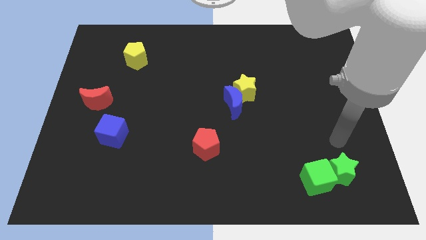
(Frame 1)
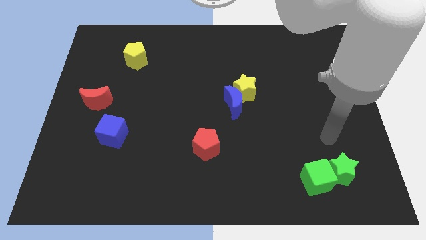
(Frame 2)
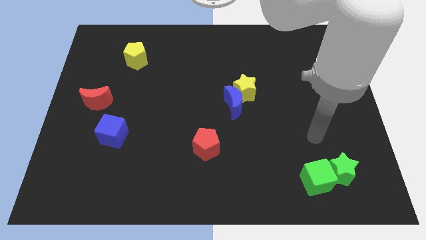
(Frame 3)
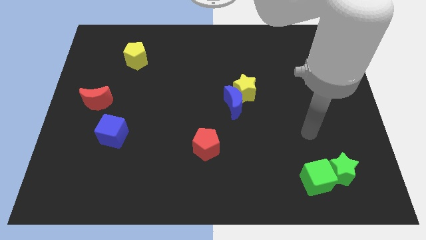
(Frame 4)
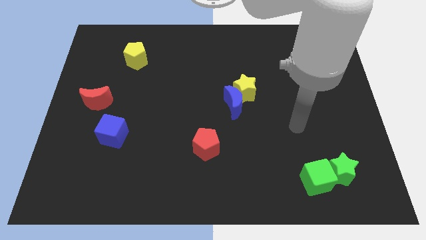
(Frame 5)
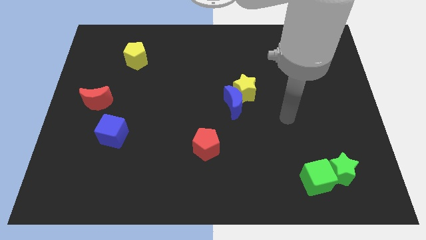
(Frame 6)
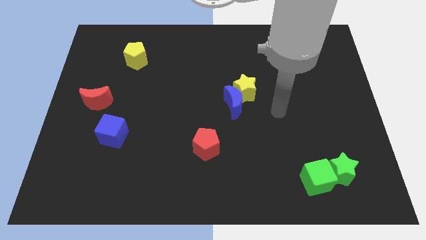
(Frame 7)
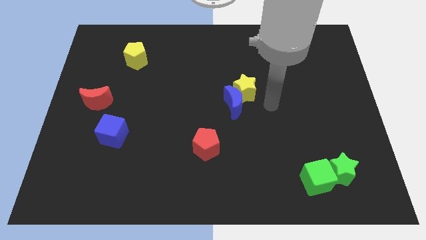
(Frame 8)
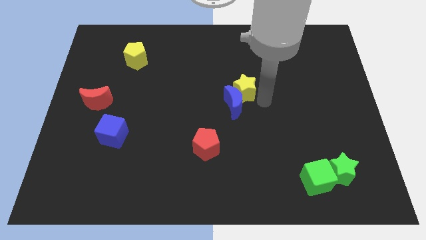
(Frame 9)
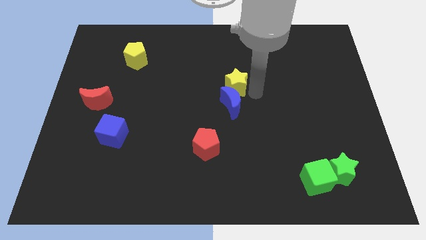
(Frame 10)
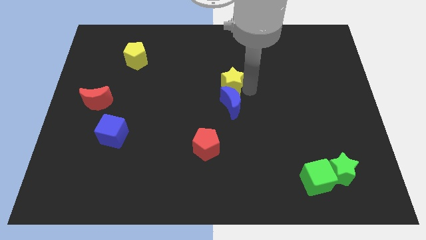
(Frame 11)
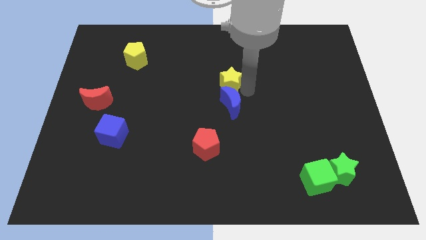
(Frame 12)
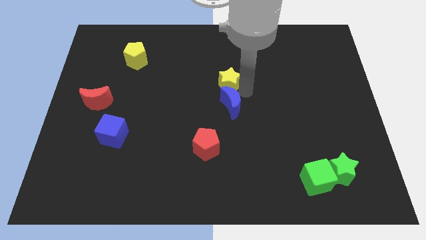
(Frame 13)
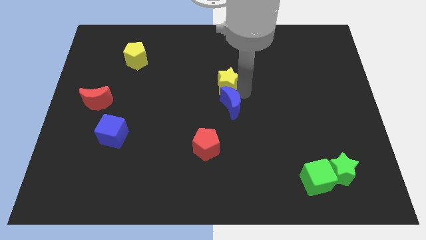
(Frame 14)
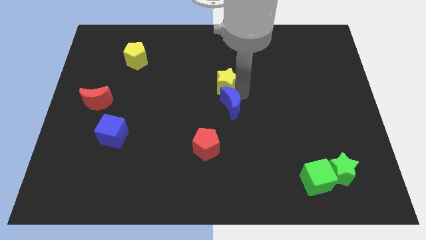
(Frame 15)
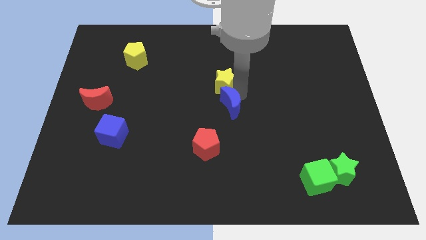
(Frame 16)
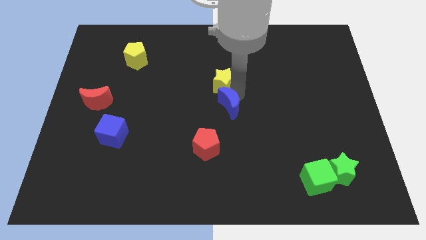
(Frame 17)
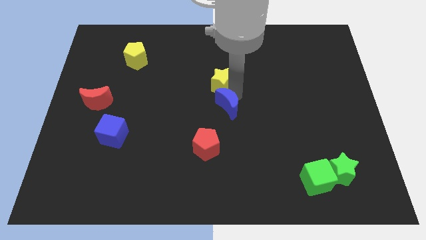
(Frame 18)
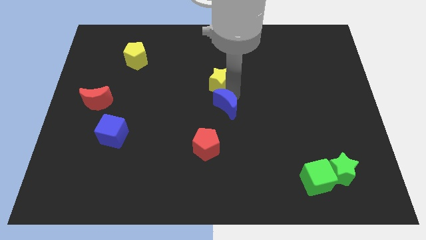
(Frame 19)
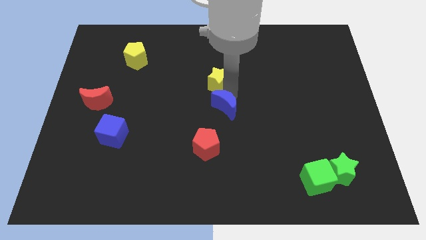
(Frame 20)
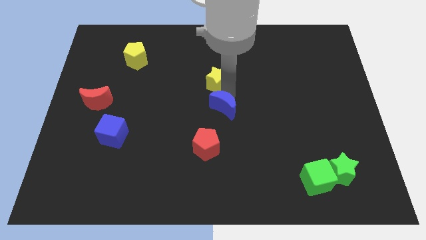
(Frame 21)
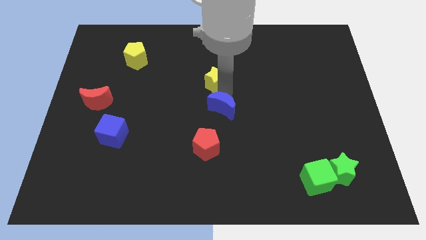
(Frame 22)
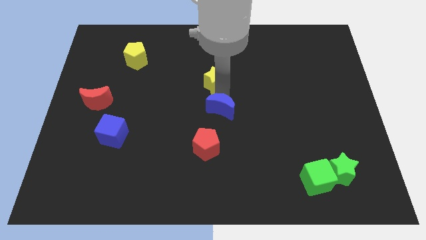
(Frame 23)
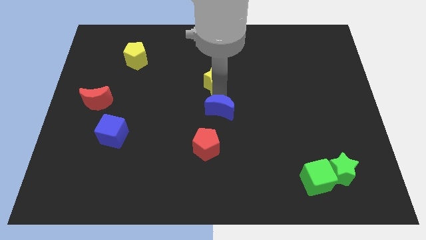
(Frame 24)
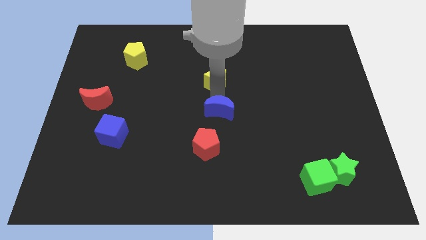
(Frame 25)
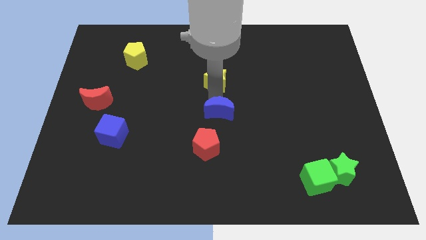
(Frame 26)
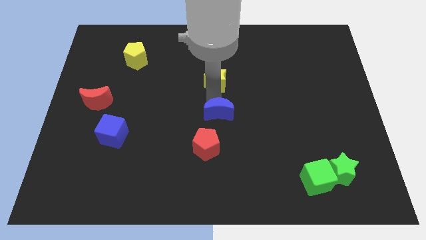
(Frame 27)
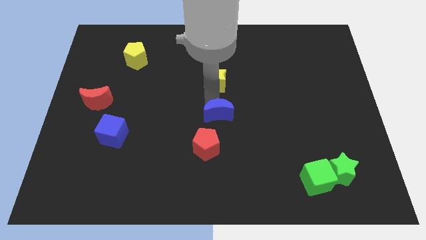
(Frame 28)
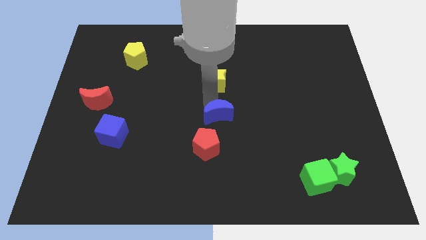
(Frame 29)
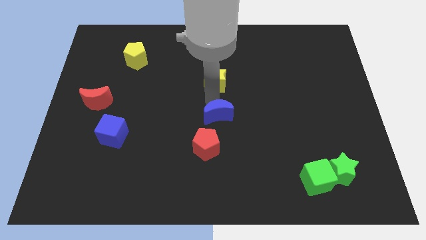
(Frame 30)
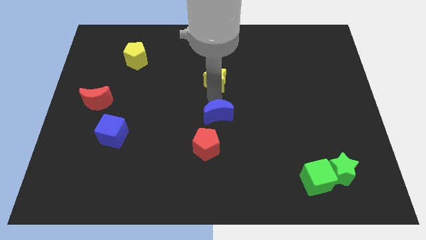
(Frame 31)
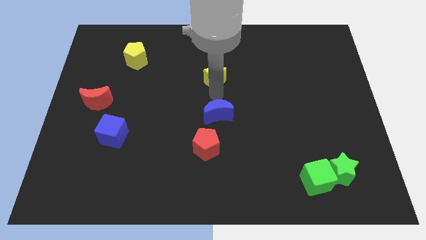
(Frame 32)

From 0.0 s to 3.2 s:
pull the blue moon apart from the yellow star

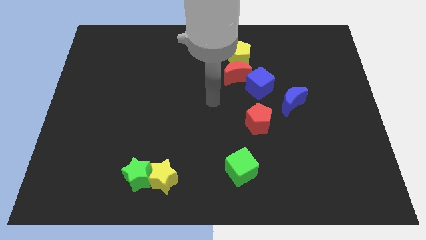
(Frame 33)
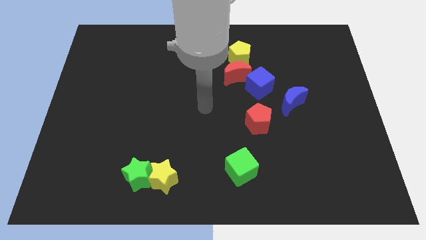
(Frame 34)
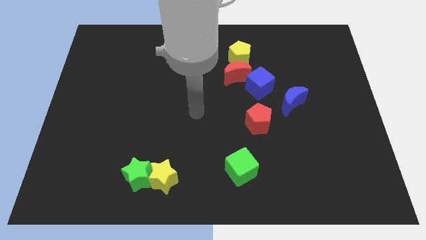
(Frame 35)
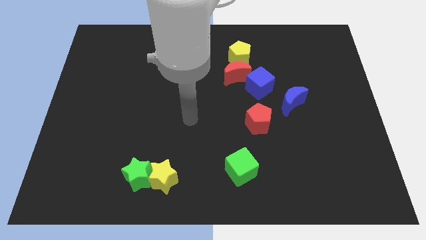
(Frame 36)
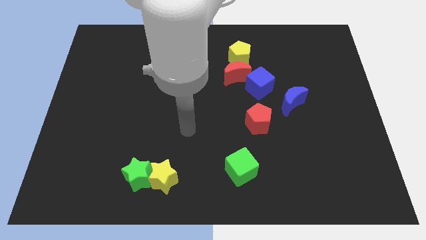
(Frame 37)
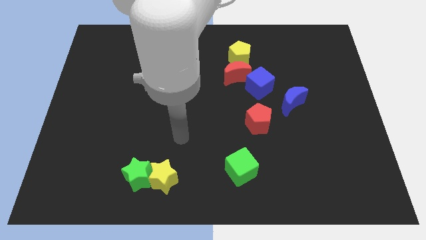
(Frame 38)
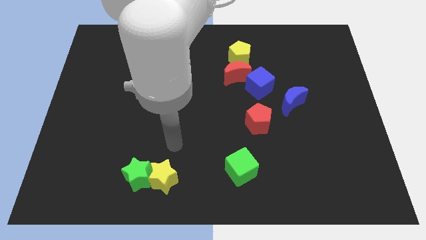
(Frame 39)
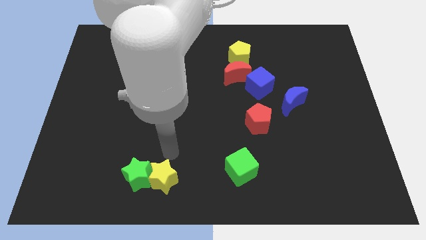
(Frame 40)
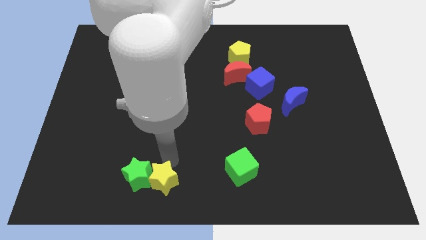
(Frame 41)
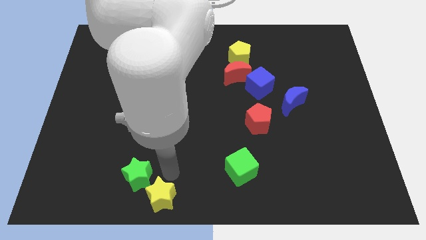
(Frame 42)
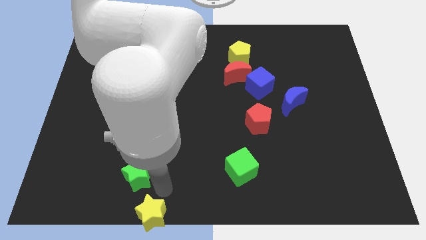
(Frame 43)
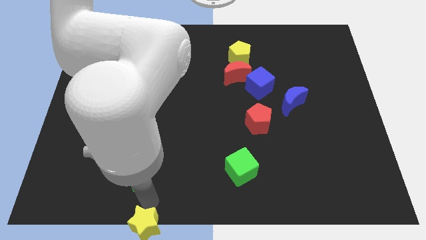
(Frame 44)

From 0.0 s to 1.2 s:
pull the green star apart from the yellow star

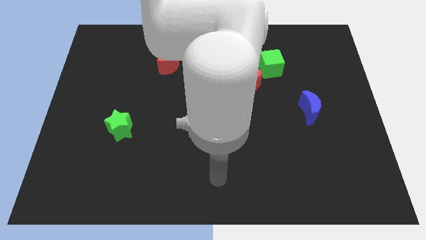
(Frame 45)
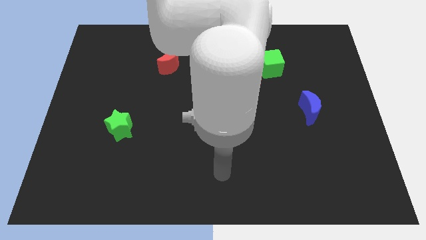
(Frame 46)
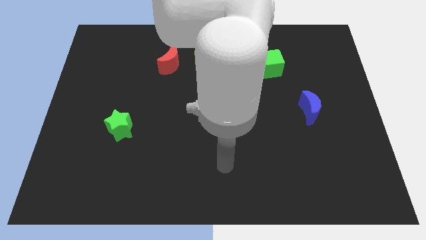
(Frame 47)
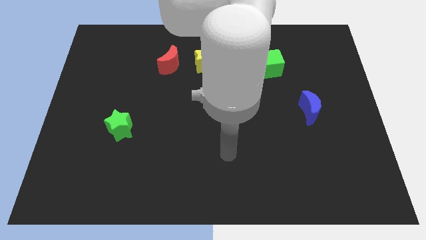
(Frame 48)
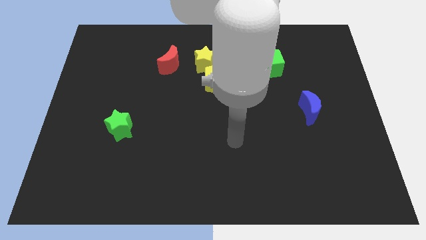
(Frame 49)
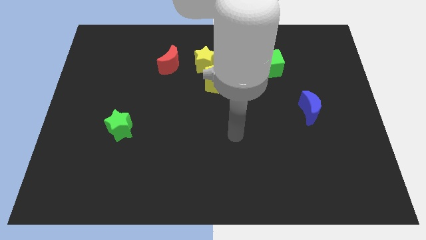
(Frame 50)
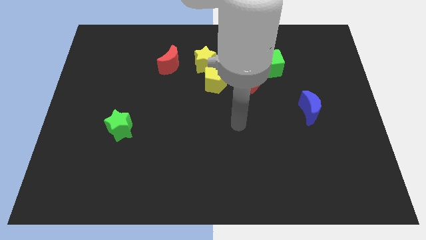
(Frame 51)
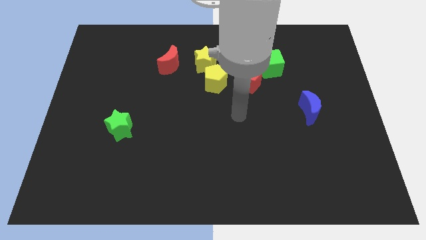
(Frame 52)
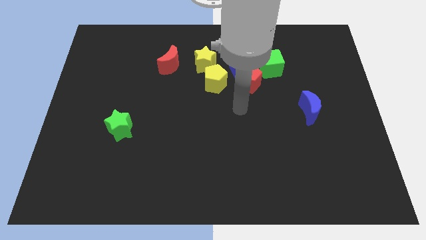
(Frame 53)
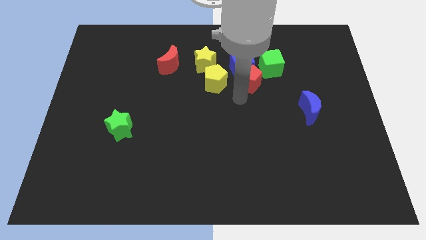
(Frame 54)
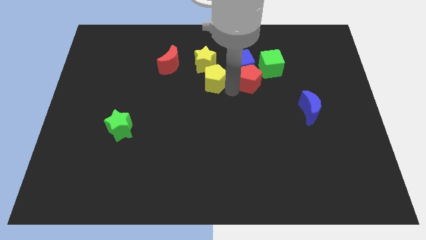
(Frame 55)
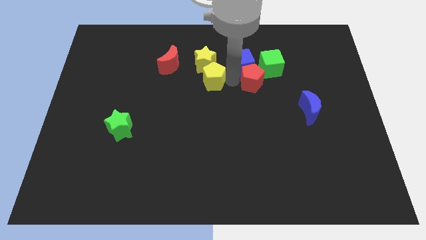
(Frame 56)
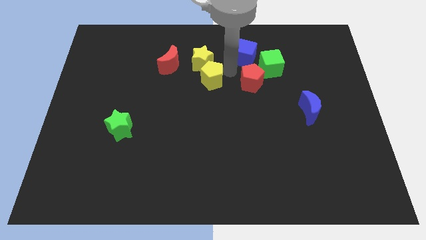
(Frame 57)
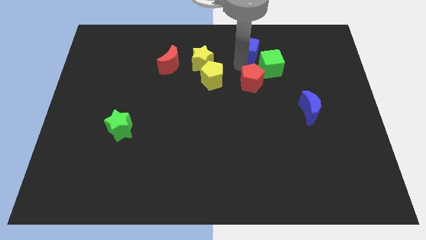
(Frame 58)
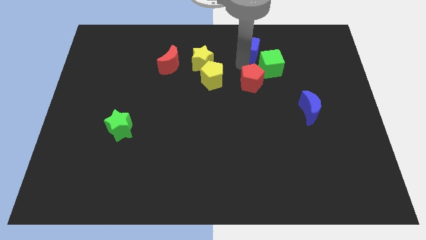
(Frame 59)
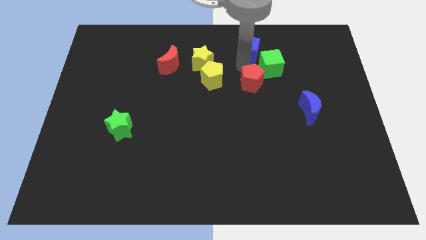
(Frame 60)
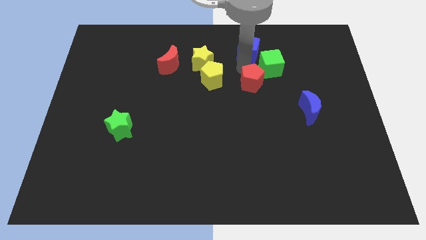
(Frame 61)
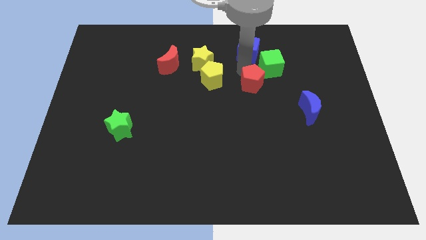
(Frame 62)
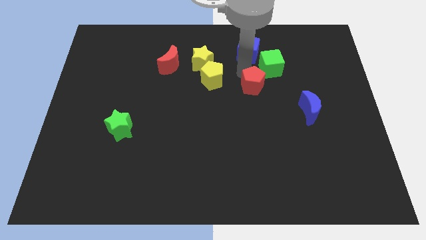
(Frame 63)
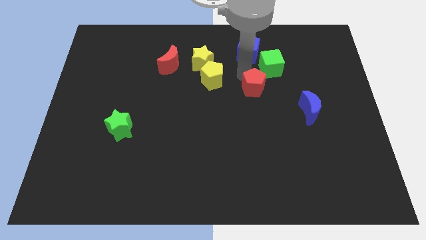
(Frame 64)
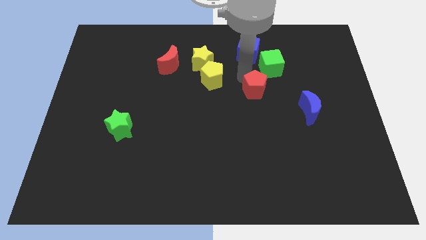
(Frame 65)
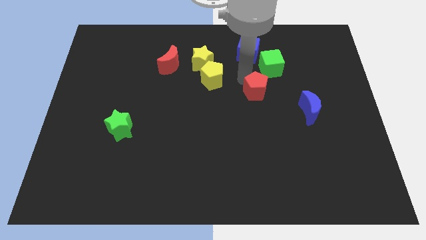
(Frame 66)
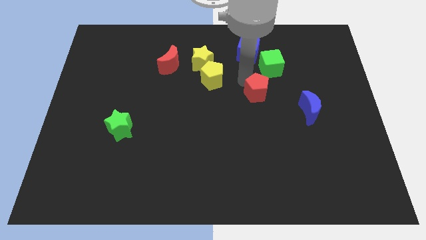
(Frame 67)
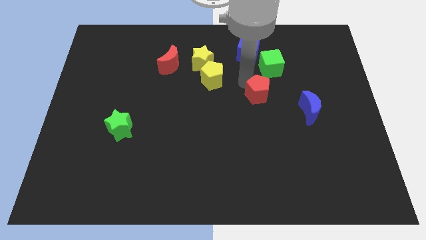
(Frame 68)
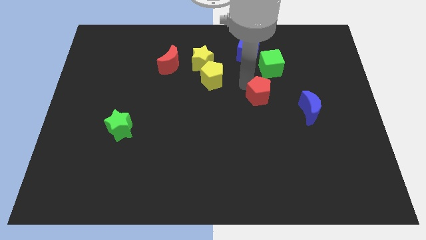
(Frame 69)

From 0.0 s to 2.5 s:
move the red pentagon away from the blue cube, green cube, and yellow pentagon

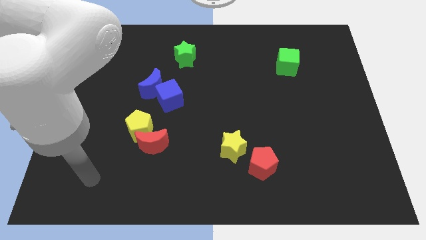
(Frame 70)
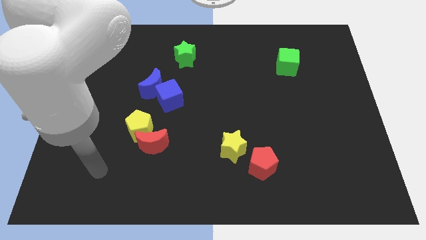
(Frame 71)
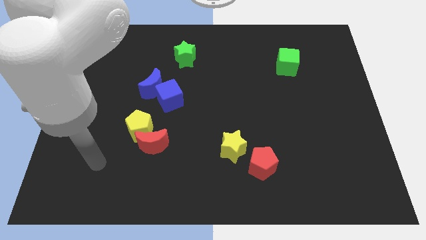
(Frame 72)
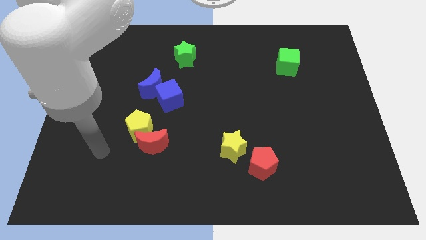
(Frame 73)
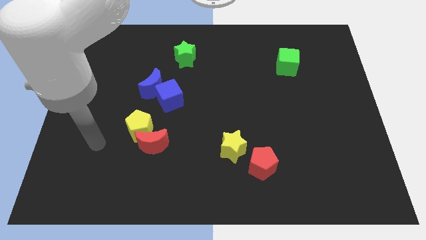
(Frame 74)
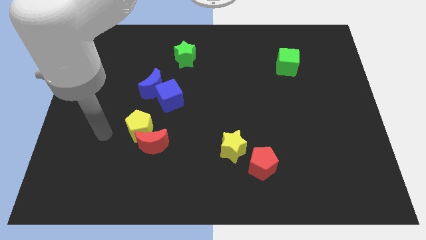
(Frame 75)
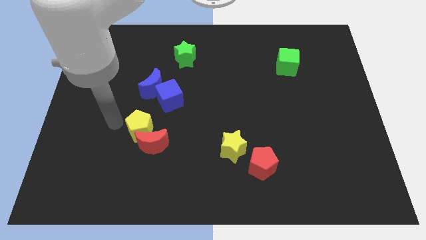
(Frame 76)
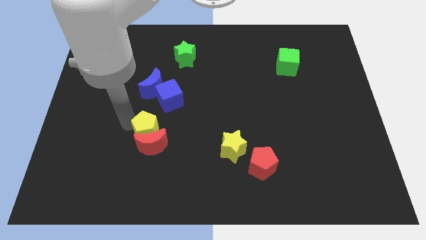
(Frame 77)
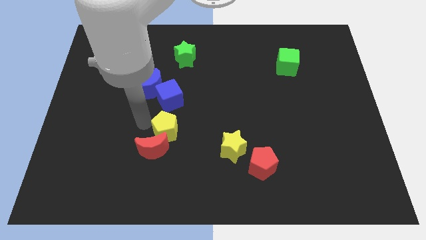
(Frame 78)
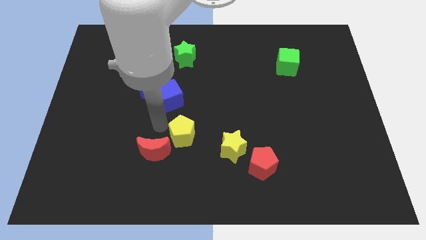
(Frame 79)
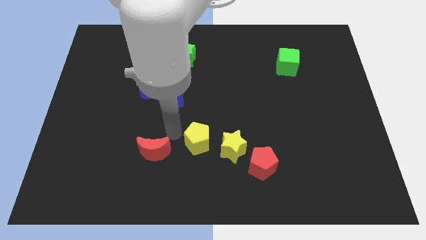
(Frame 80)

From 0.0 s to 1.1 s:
separate the red moon from the yellow pentagon

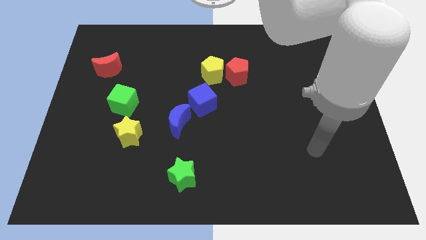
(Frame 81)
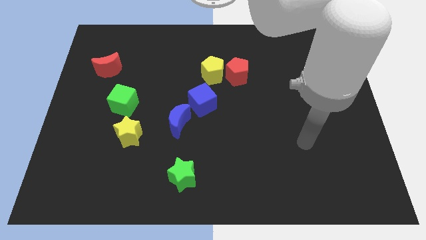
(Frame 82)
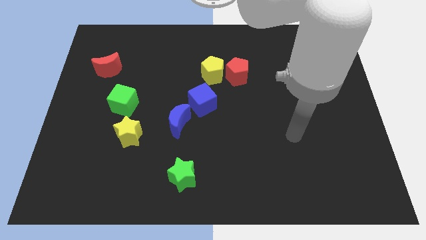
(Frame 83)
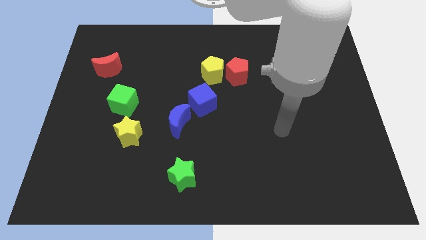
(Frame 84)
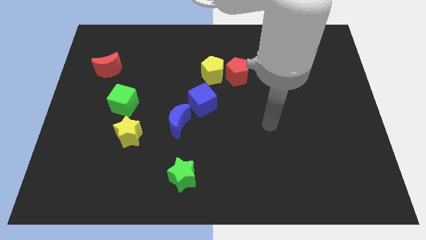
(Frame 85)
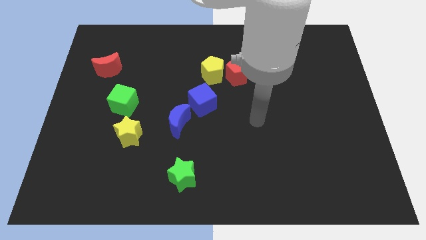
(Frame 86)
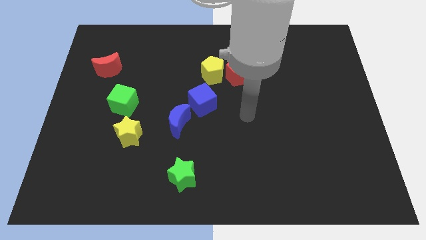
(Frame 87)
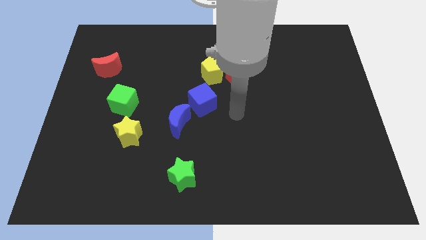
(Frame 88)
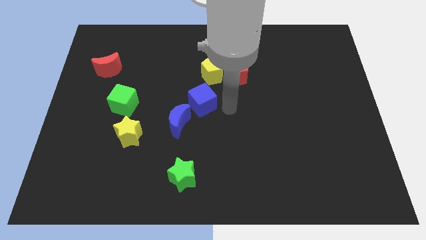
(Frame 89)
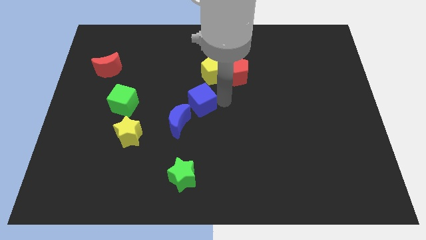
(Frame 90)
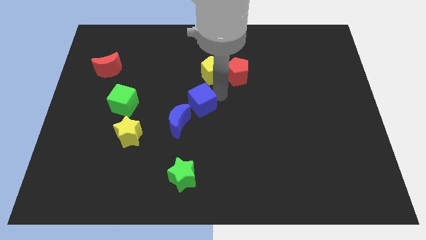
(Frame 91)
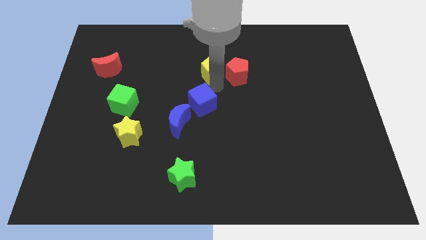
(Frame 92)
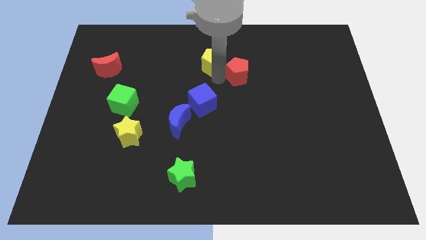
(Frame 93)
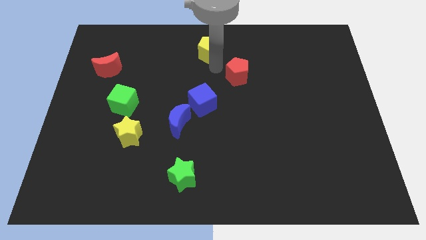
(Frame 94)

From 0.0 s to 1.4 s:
separate the red pentagon from the yellow pentagon
